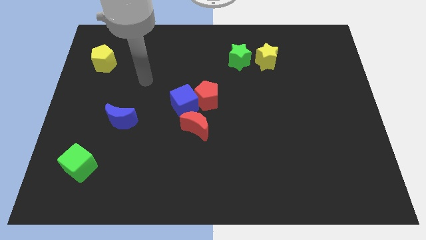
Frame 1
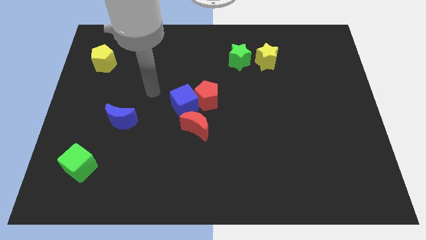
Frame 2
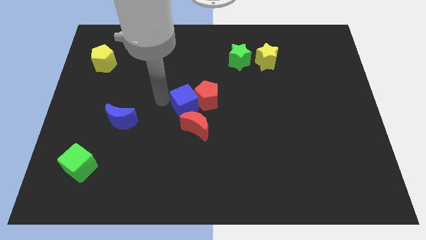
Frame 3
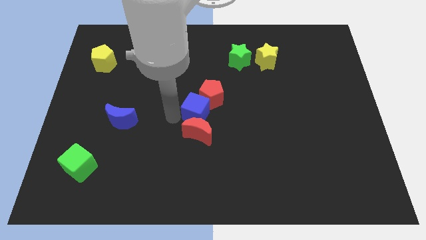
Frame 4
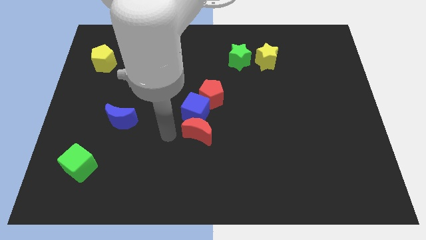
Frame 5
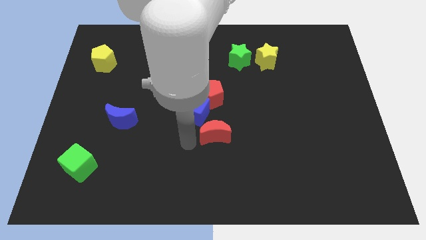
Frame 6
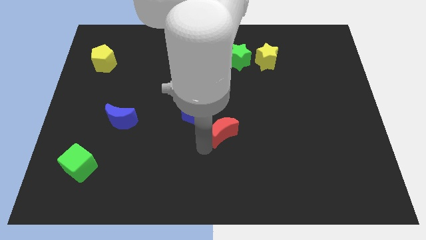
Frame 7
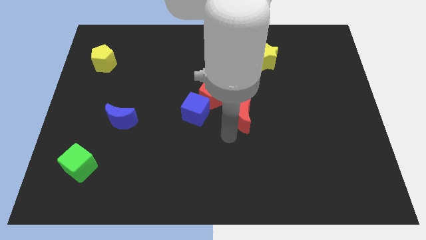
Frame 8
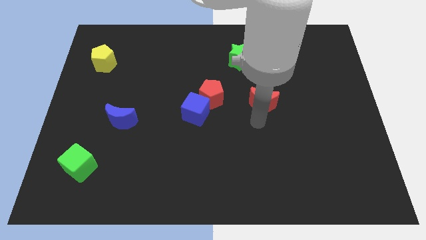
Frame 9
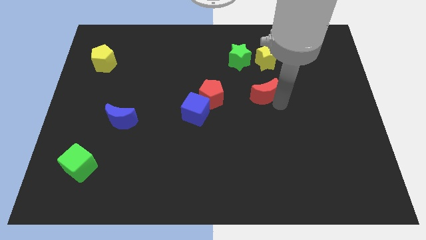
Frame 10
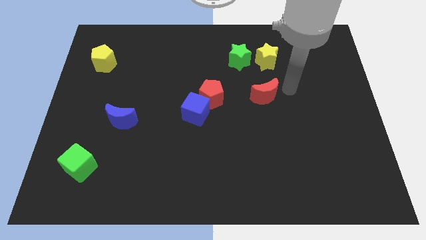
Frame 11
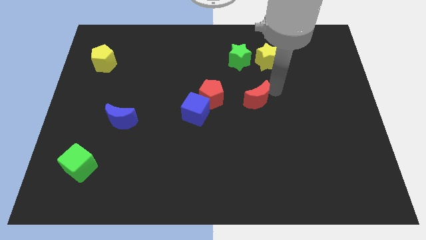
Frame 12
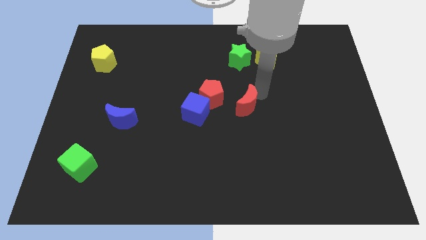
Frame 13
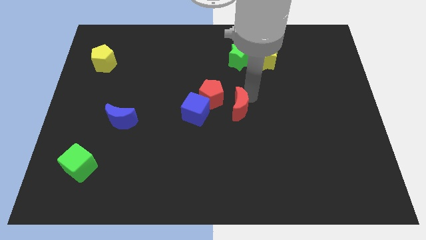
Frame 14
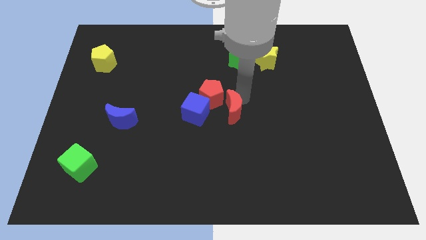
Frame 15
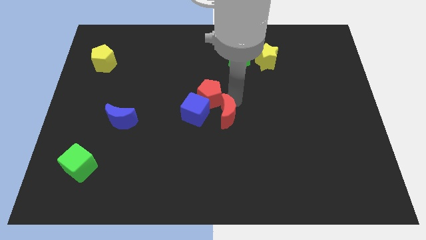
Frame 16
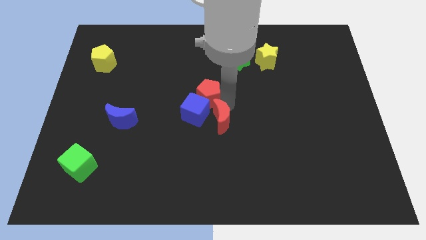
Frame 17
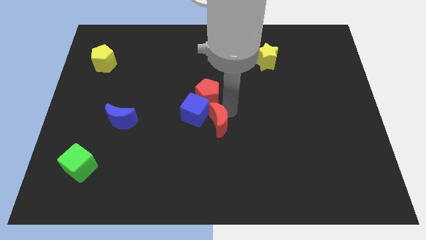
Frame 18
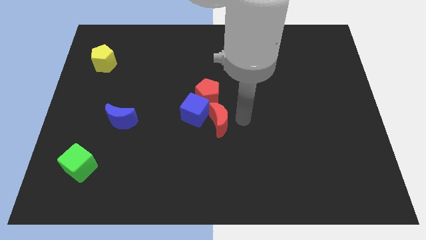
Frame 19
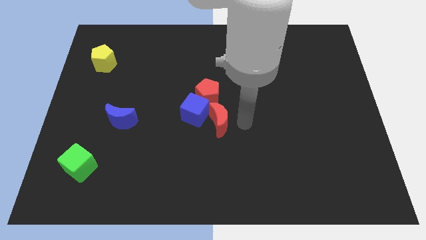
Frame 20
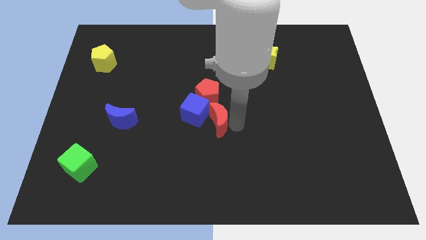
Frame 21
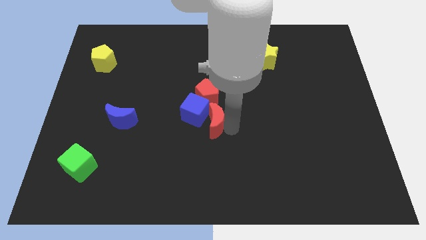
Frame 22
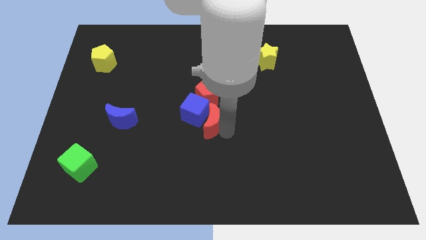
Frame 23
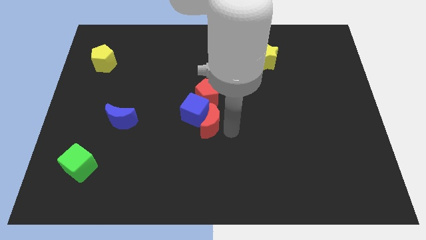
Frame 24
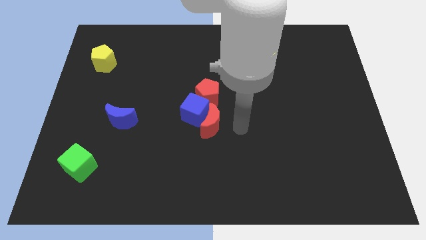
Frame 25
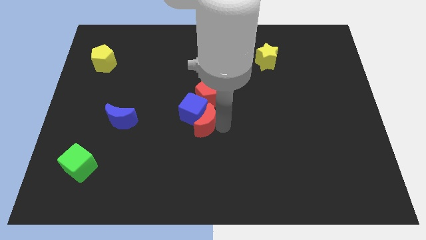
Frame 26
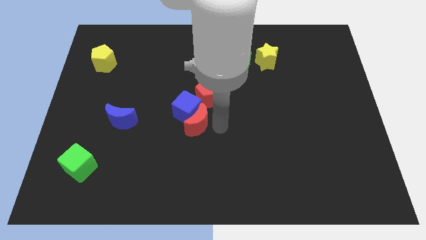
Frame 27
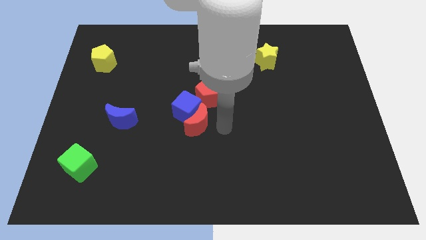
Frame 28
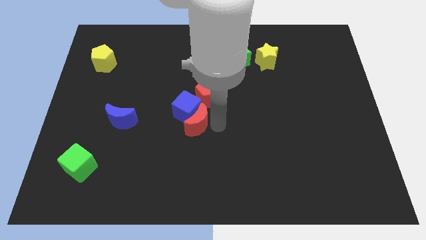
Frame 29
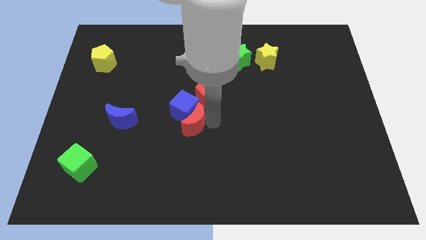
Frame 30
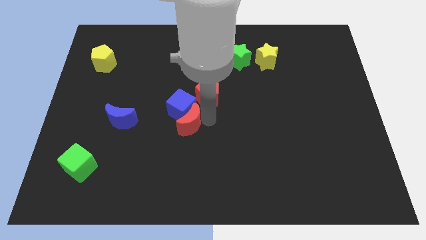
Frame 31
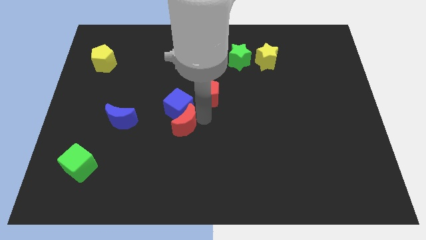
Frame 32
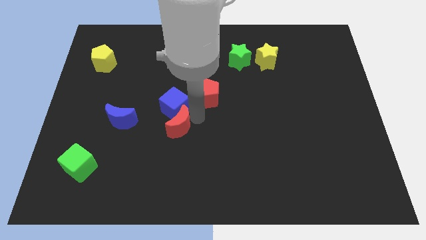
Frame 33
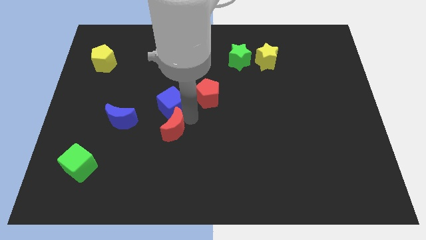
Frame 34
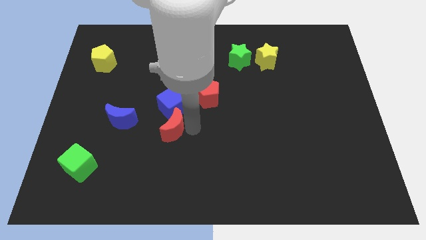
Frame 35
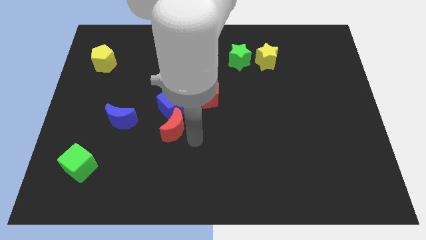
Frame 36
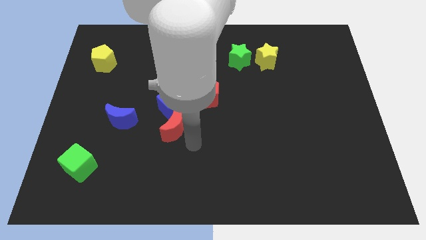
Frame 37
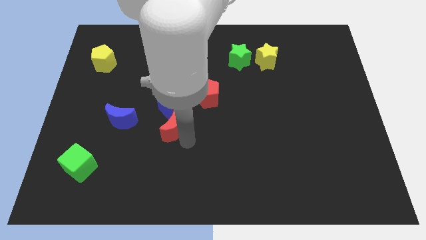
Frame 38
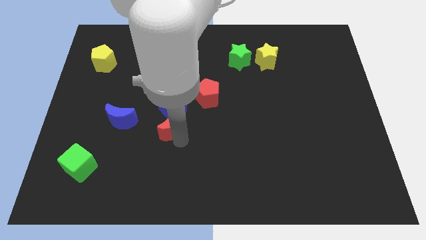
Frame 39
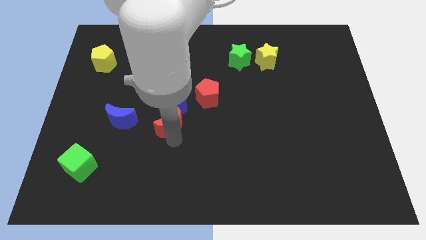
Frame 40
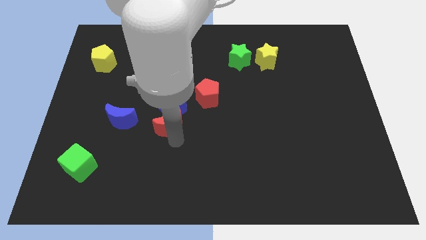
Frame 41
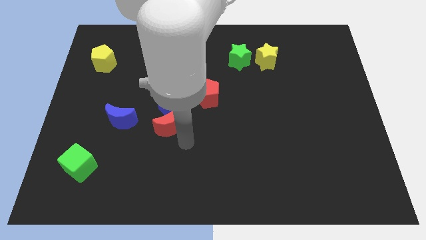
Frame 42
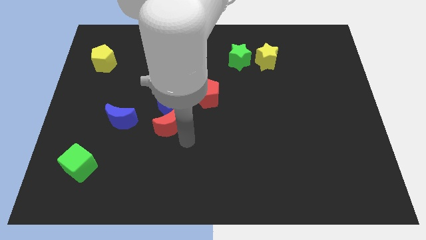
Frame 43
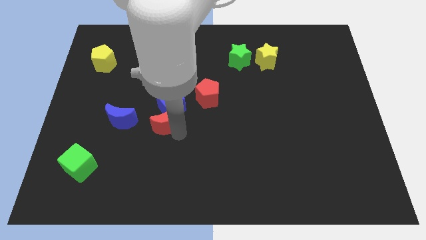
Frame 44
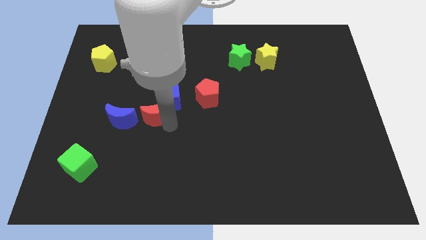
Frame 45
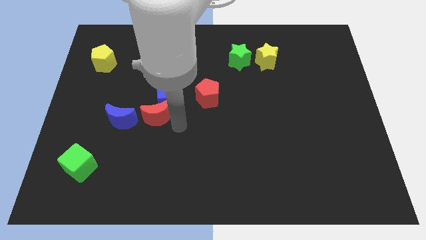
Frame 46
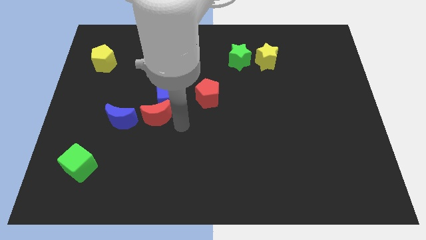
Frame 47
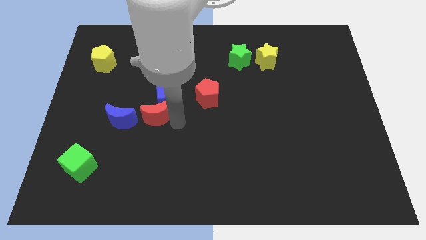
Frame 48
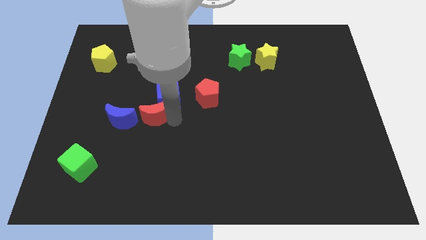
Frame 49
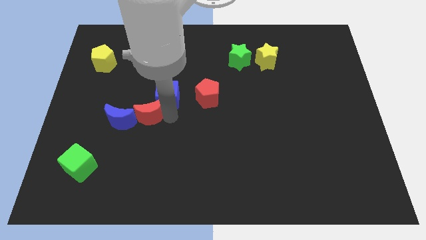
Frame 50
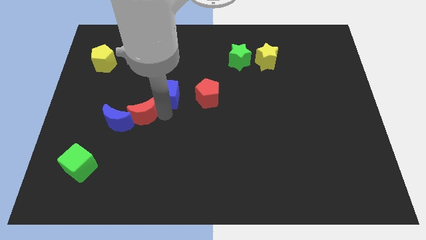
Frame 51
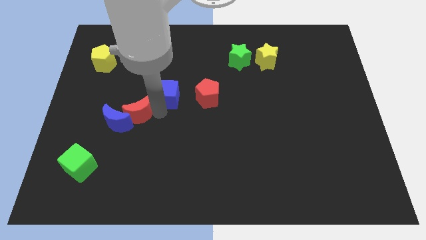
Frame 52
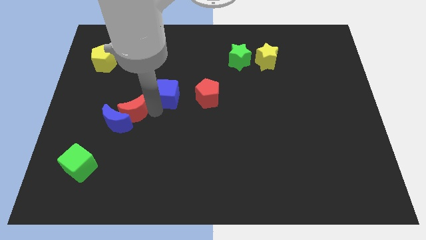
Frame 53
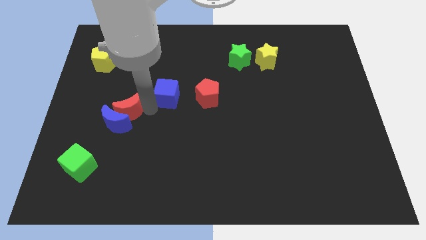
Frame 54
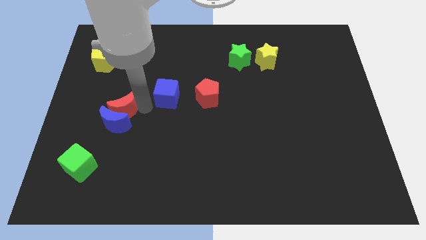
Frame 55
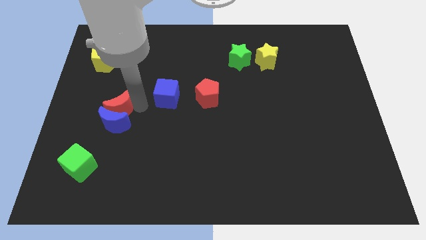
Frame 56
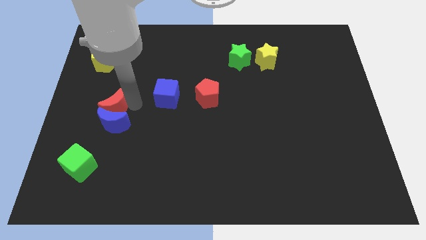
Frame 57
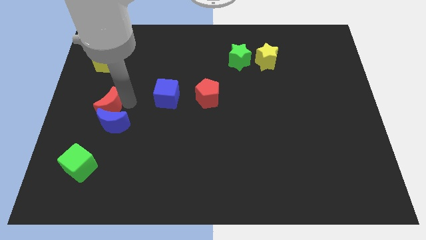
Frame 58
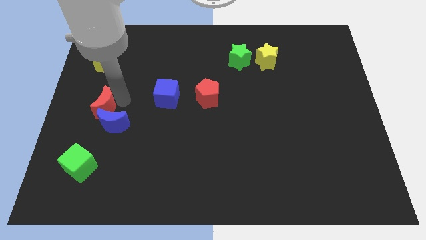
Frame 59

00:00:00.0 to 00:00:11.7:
move the red moon to the left side of the board

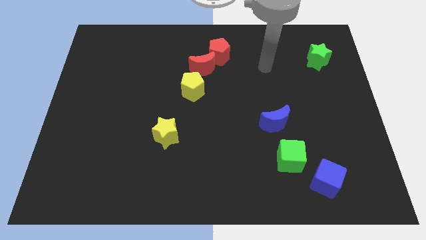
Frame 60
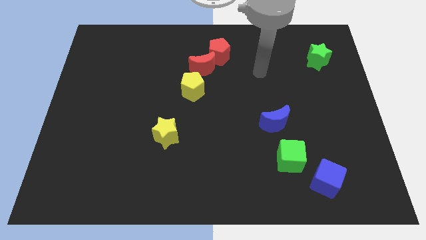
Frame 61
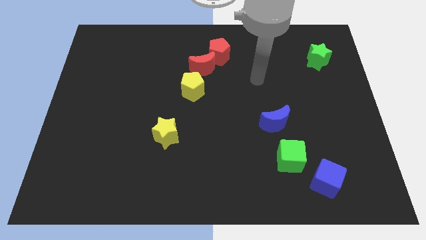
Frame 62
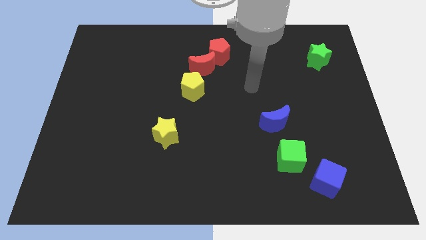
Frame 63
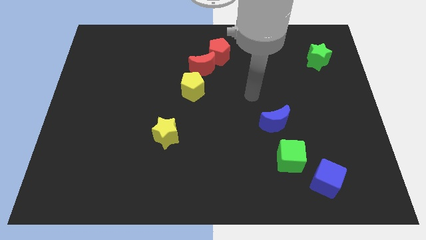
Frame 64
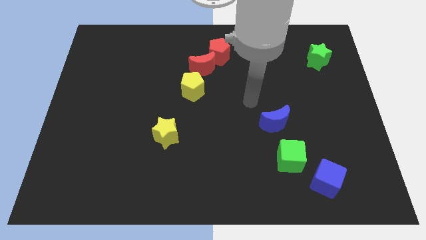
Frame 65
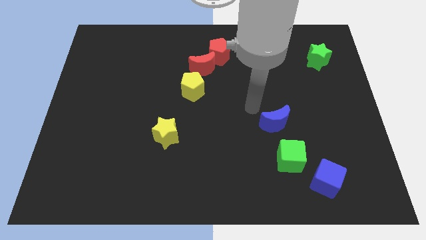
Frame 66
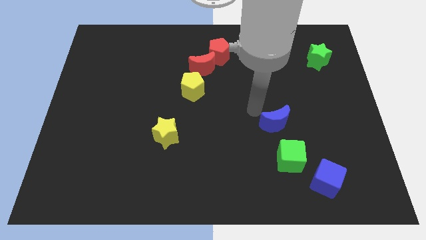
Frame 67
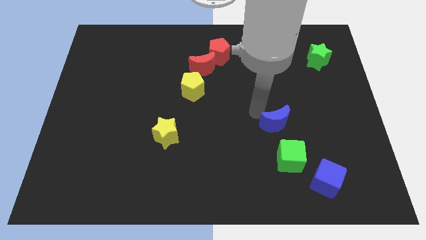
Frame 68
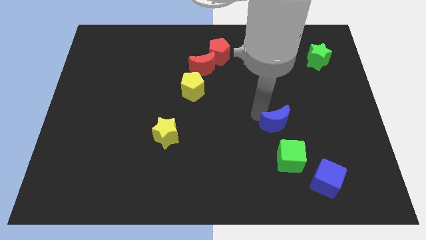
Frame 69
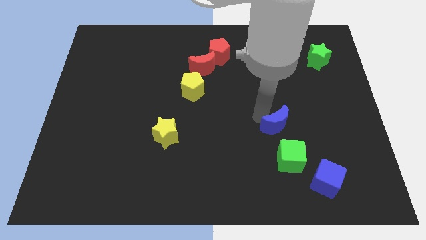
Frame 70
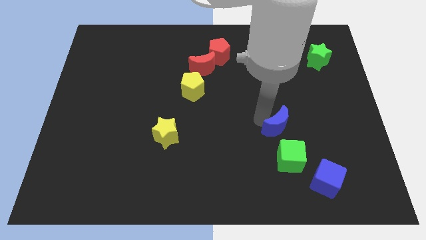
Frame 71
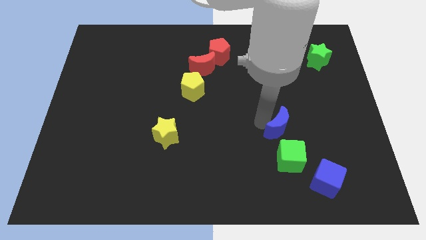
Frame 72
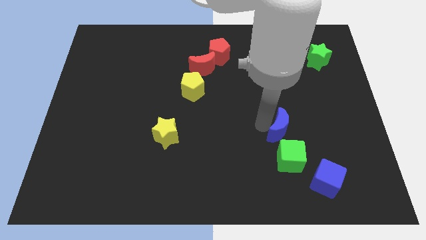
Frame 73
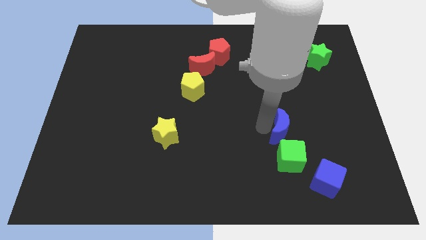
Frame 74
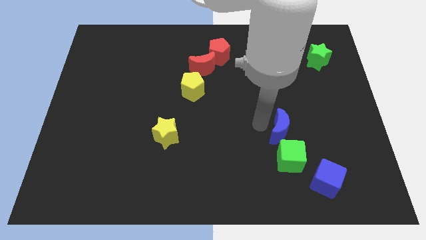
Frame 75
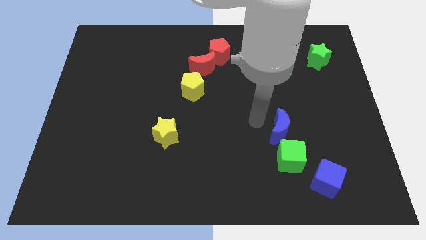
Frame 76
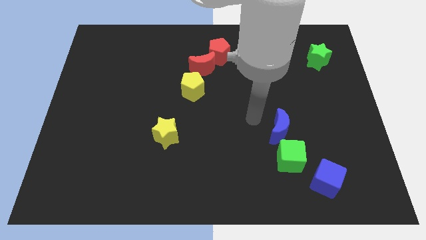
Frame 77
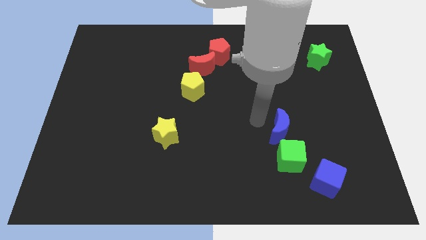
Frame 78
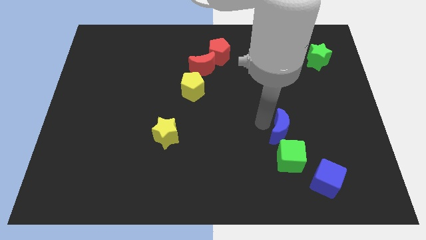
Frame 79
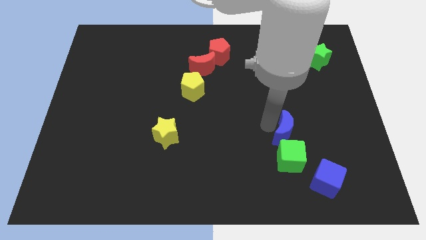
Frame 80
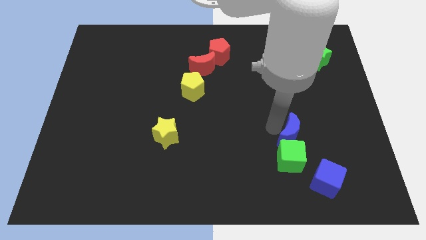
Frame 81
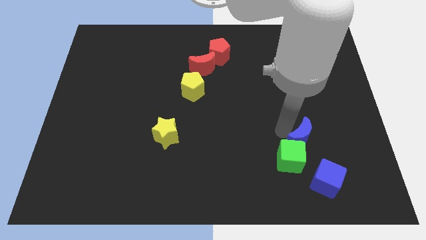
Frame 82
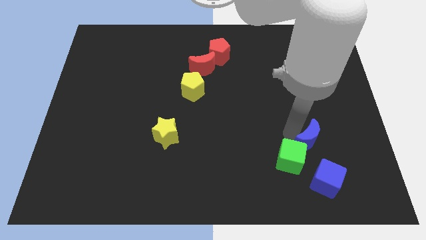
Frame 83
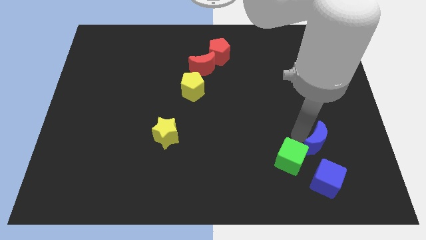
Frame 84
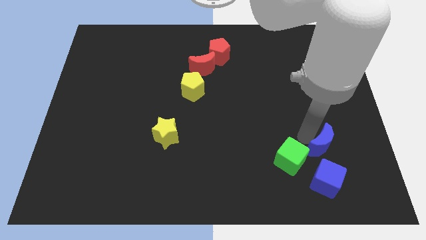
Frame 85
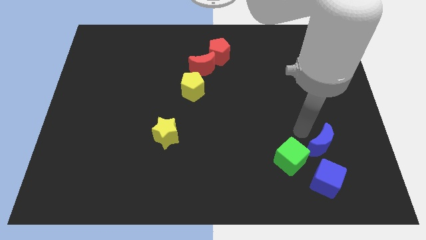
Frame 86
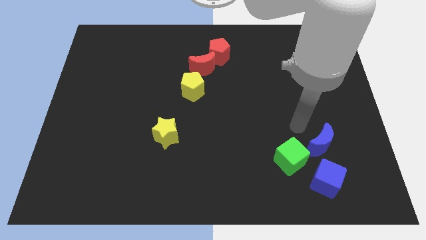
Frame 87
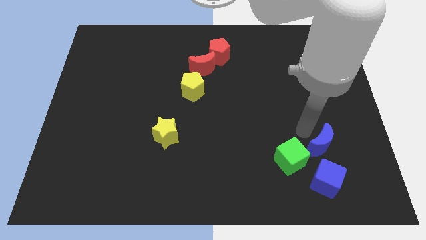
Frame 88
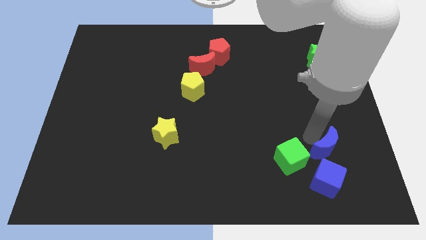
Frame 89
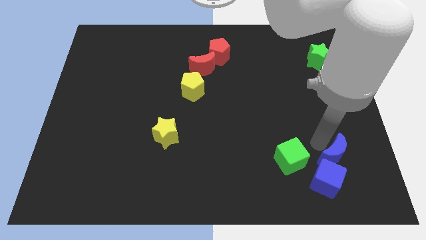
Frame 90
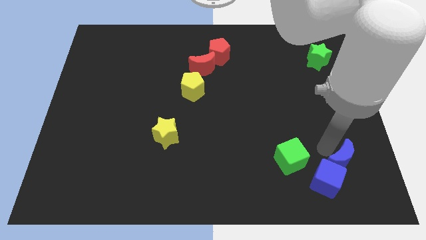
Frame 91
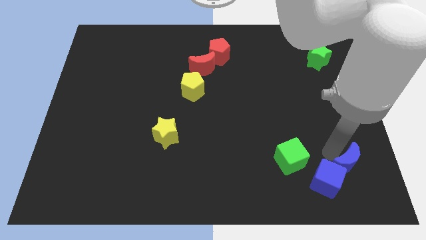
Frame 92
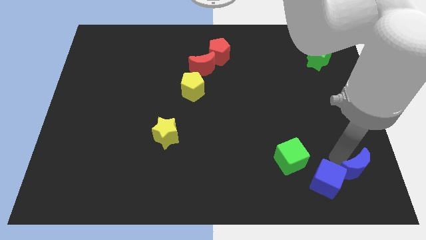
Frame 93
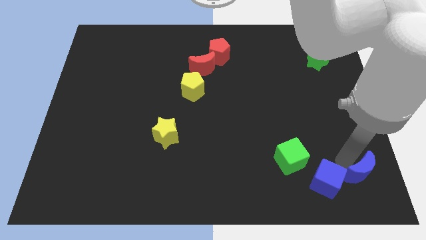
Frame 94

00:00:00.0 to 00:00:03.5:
move the blue moon to the bottom right
